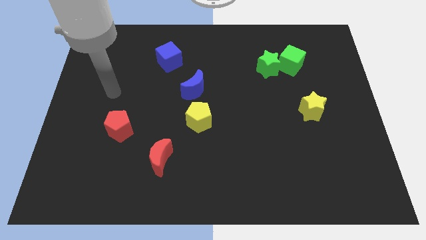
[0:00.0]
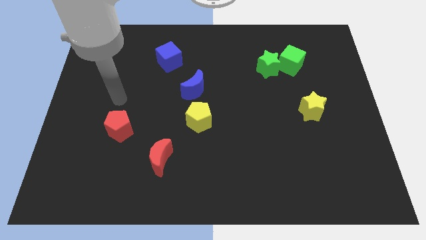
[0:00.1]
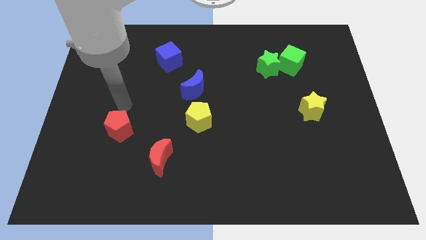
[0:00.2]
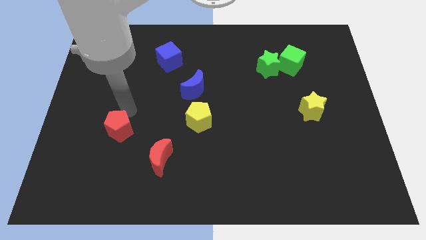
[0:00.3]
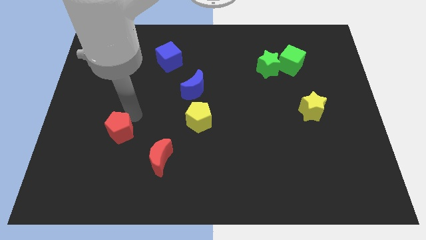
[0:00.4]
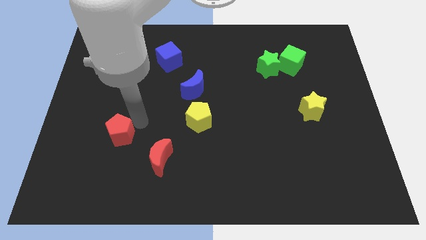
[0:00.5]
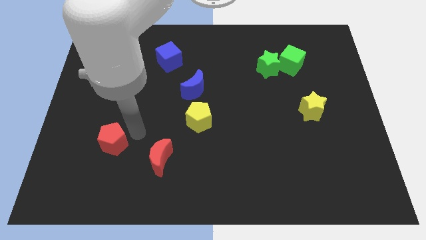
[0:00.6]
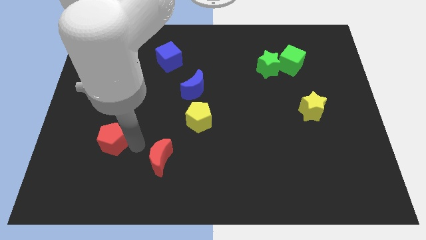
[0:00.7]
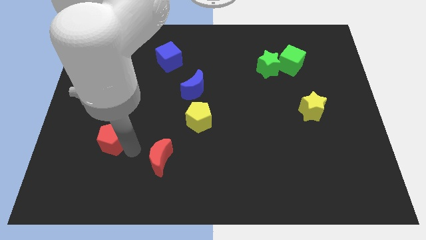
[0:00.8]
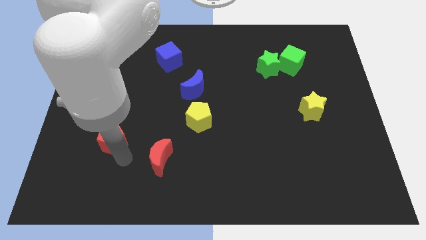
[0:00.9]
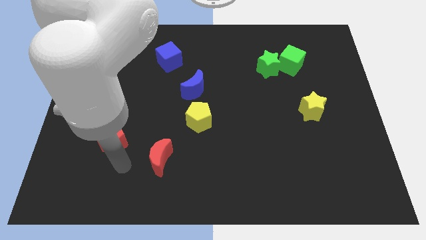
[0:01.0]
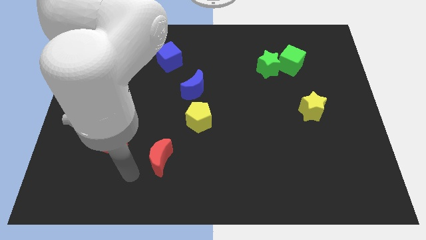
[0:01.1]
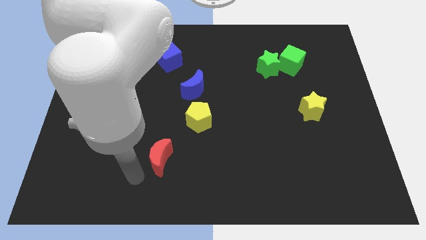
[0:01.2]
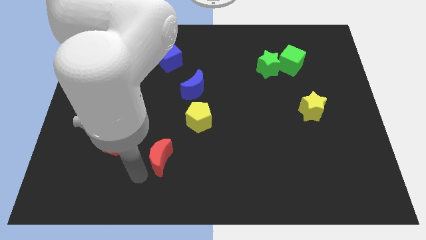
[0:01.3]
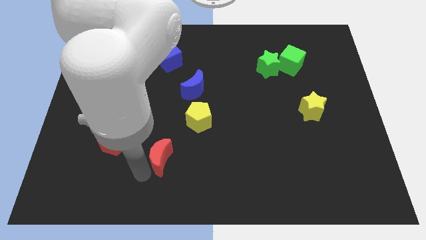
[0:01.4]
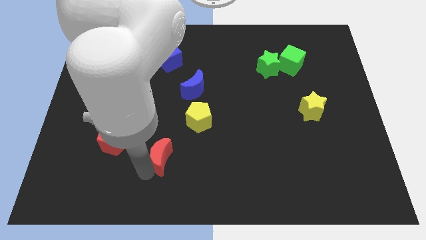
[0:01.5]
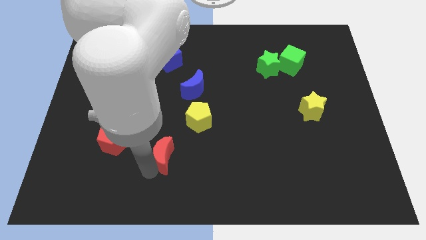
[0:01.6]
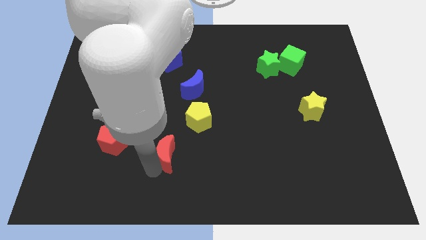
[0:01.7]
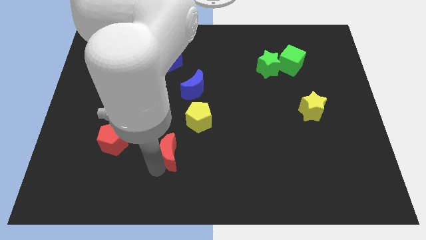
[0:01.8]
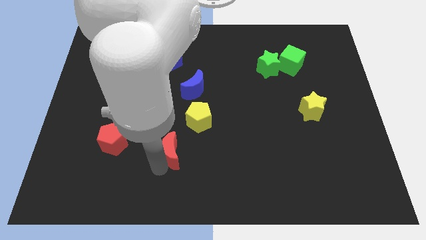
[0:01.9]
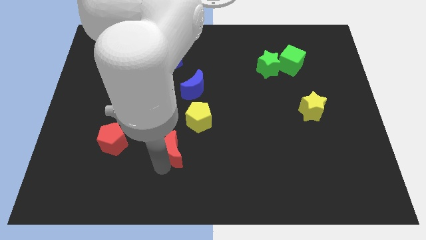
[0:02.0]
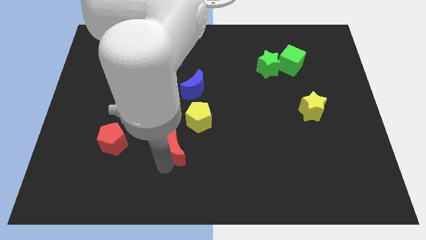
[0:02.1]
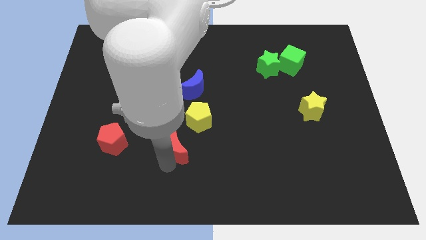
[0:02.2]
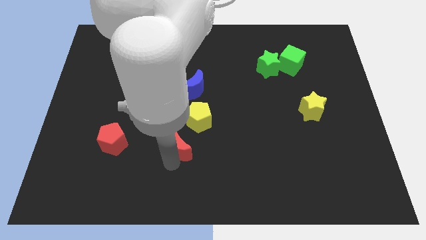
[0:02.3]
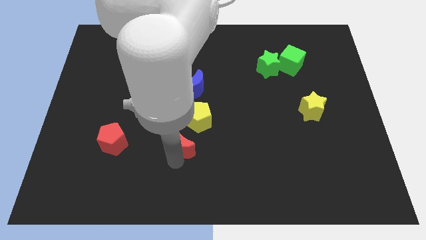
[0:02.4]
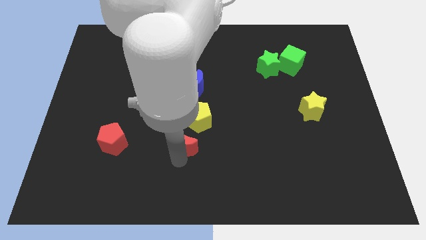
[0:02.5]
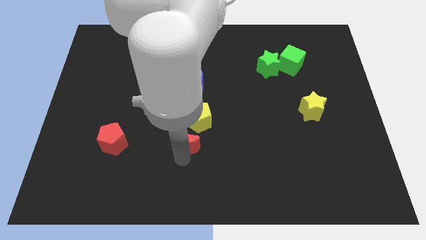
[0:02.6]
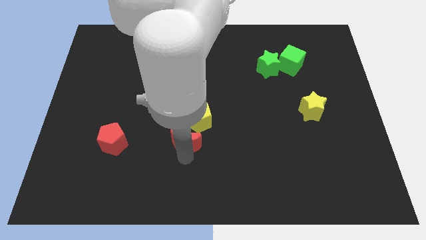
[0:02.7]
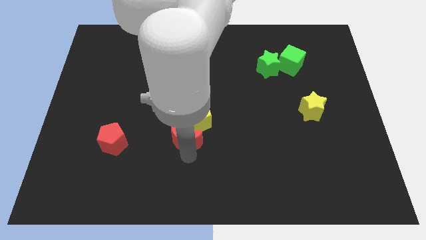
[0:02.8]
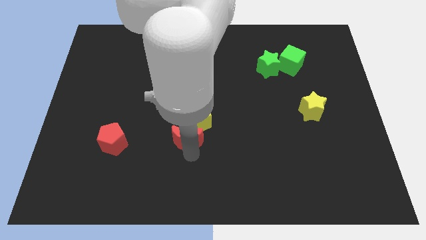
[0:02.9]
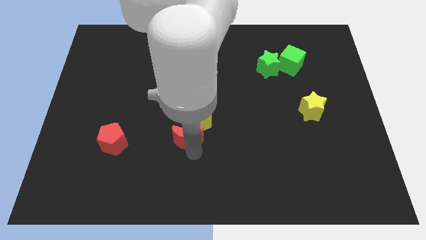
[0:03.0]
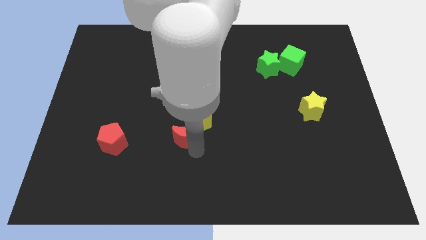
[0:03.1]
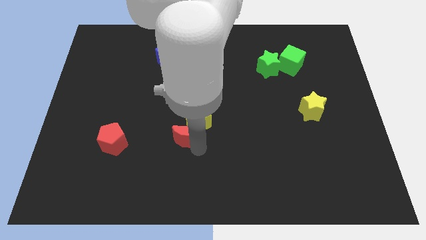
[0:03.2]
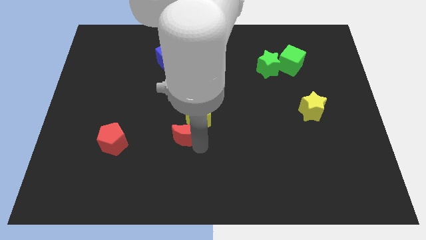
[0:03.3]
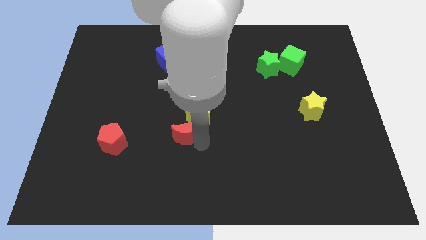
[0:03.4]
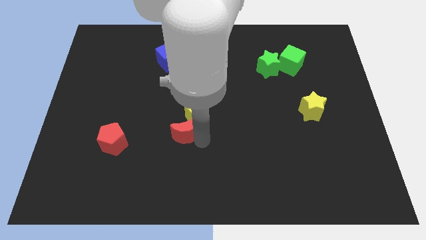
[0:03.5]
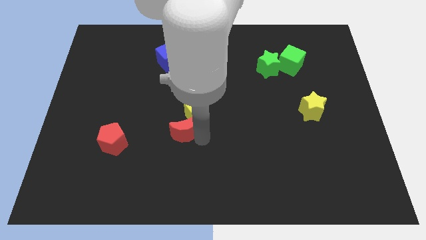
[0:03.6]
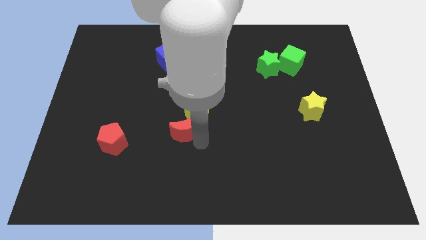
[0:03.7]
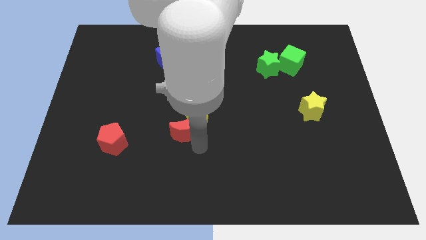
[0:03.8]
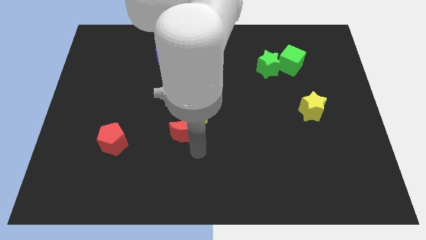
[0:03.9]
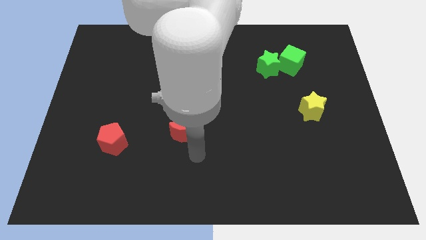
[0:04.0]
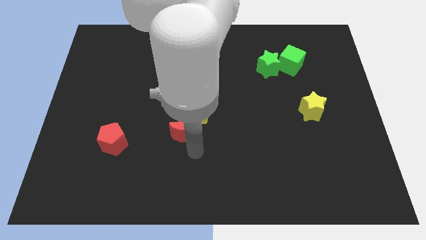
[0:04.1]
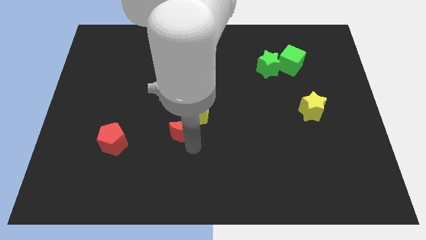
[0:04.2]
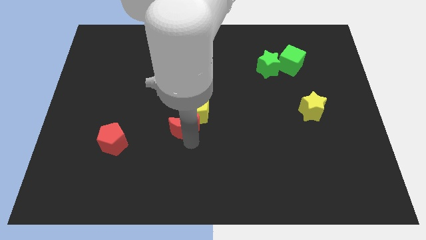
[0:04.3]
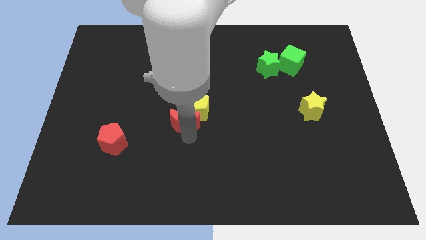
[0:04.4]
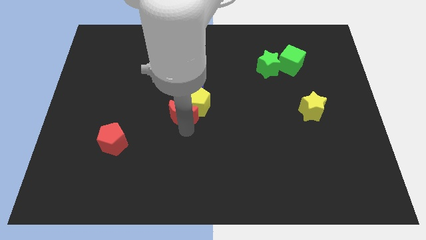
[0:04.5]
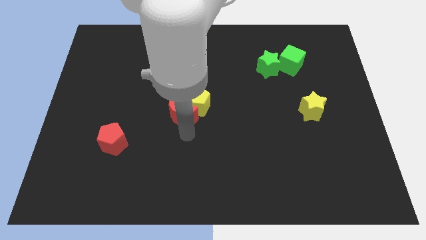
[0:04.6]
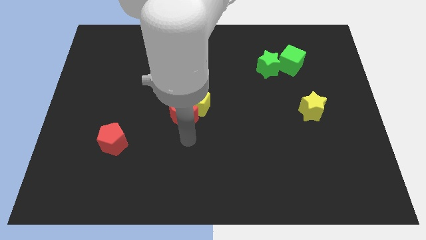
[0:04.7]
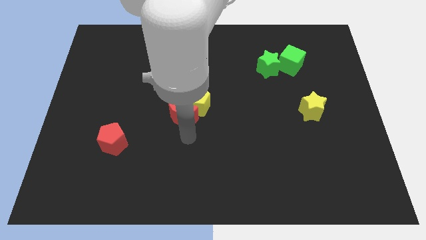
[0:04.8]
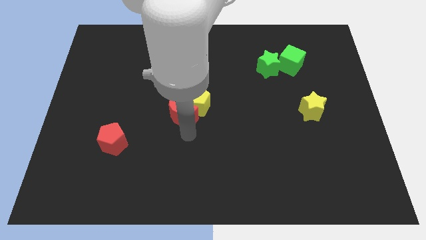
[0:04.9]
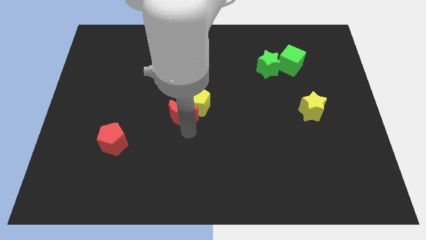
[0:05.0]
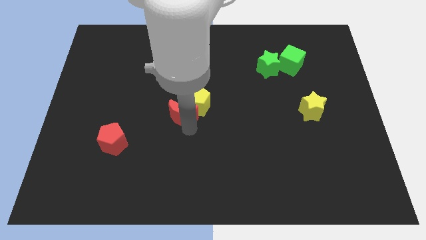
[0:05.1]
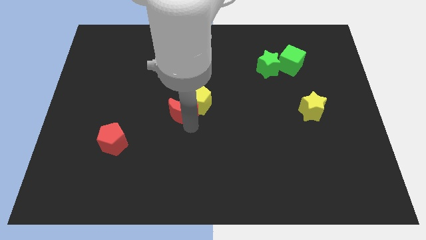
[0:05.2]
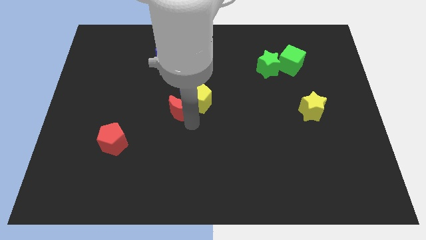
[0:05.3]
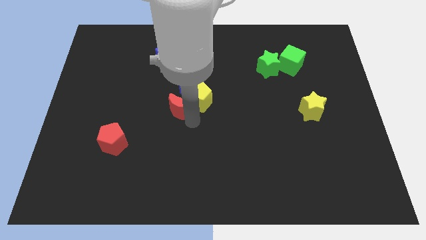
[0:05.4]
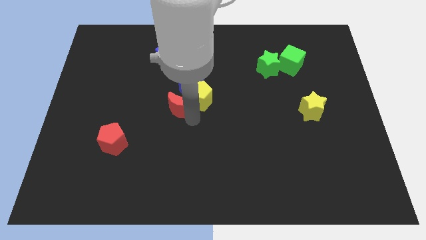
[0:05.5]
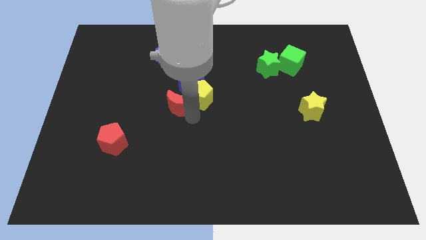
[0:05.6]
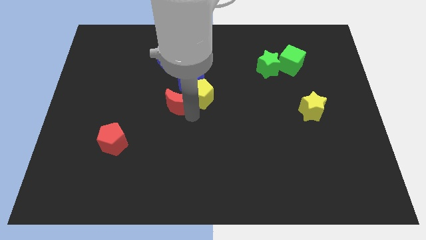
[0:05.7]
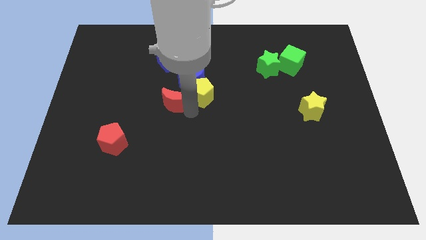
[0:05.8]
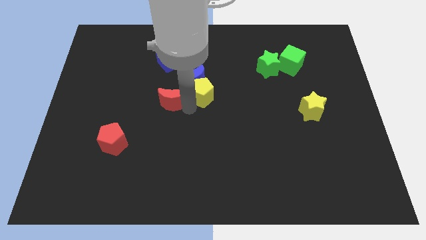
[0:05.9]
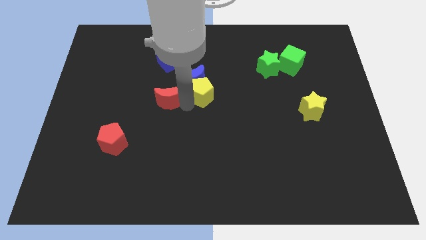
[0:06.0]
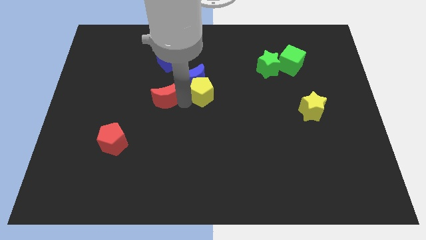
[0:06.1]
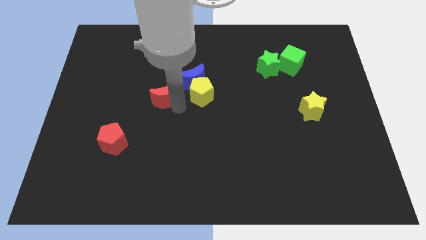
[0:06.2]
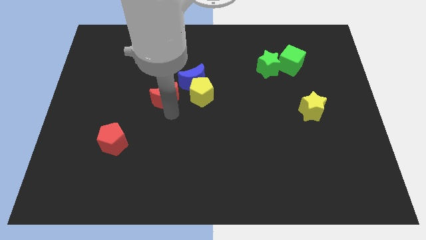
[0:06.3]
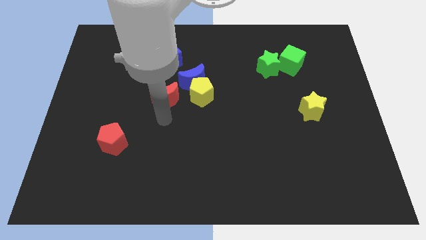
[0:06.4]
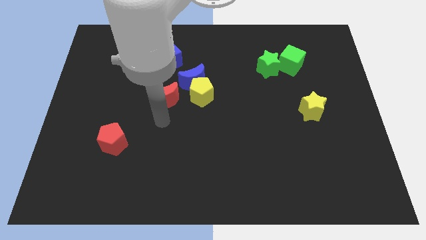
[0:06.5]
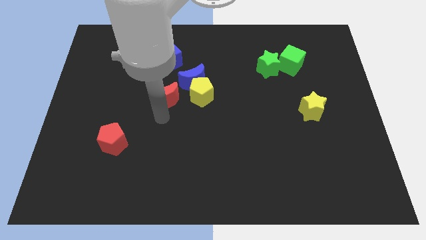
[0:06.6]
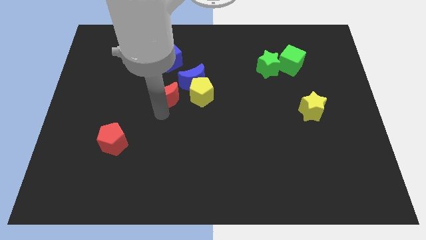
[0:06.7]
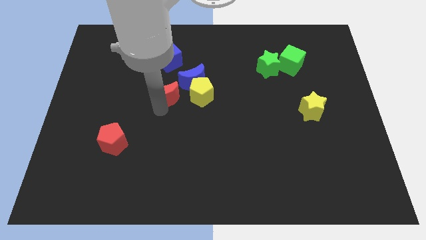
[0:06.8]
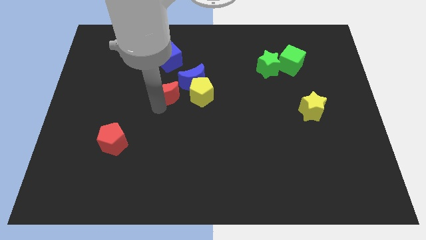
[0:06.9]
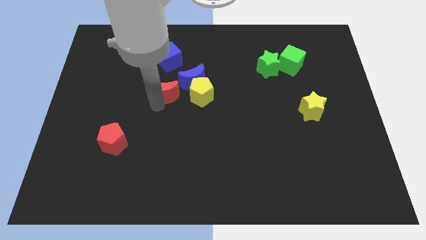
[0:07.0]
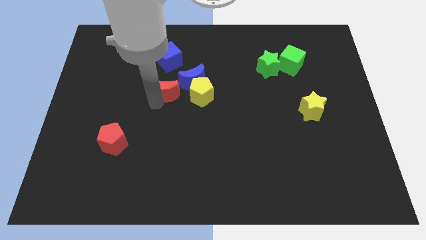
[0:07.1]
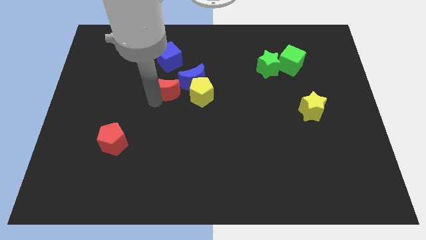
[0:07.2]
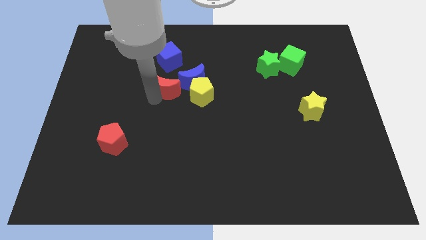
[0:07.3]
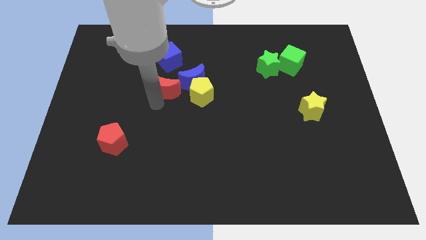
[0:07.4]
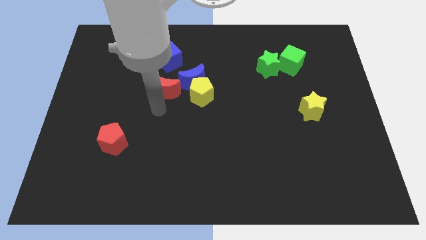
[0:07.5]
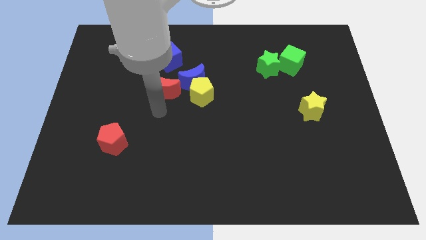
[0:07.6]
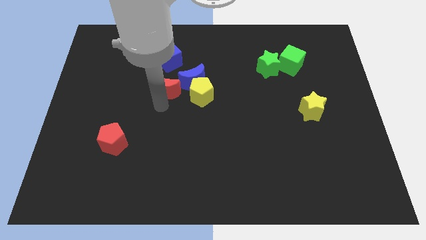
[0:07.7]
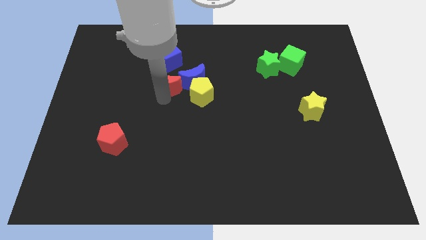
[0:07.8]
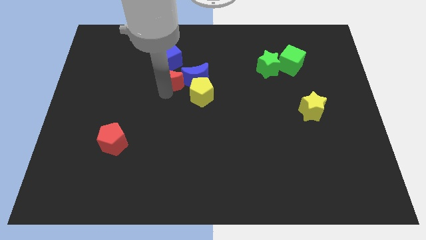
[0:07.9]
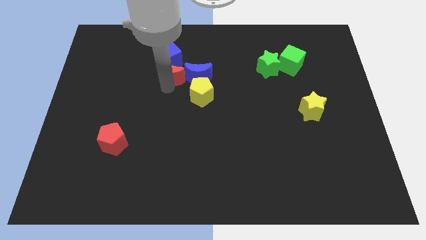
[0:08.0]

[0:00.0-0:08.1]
push the red moon to the top left side of the blue moon
